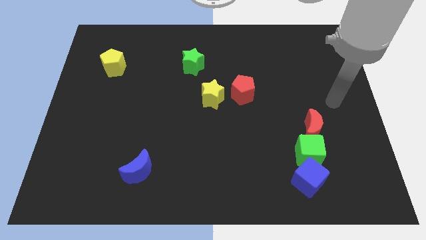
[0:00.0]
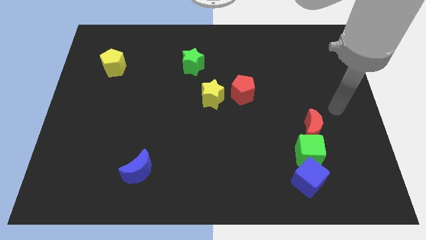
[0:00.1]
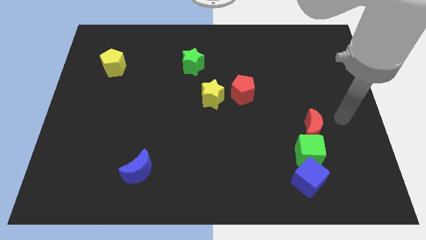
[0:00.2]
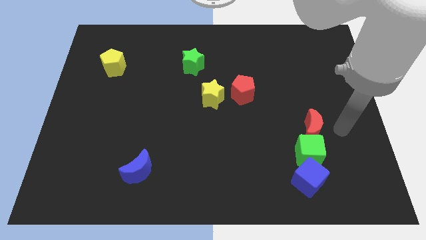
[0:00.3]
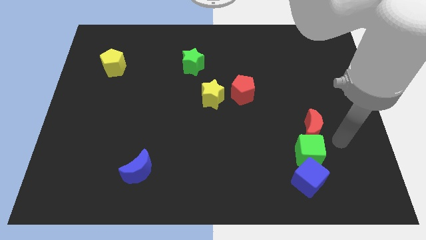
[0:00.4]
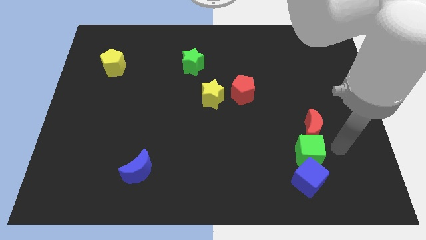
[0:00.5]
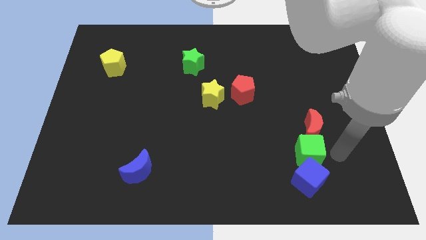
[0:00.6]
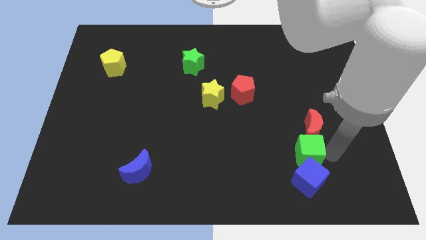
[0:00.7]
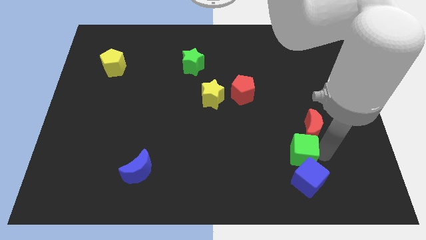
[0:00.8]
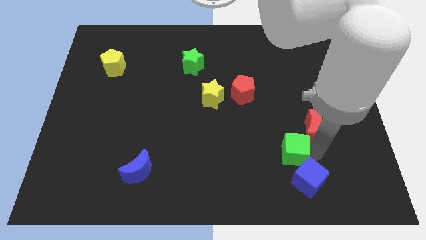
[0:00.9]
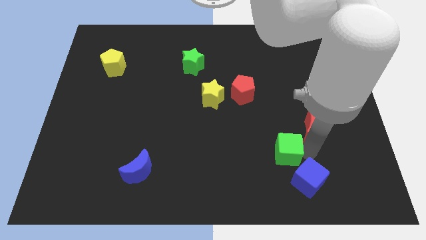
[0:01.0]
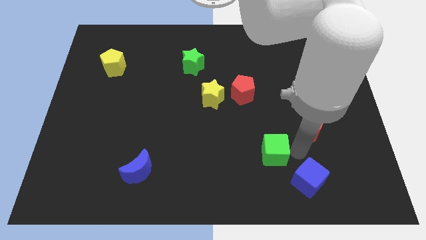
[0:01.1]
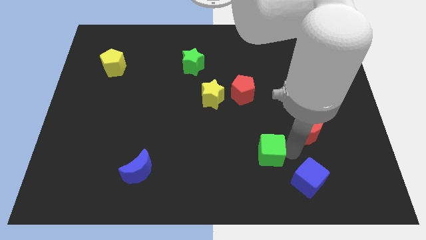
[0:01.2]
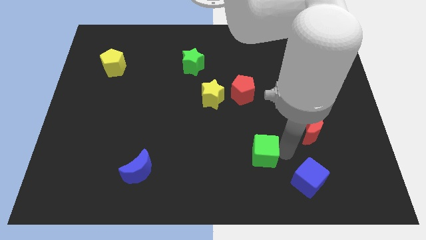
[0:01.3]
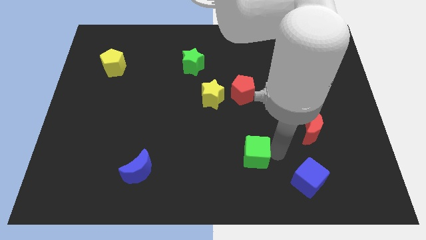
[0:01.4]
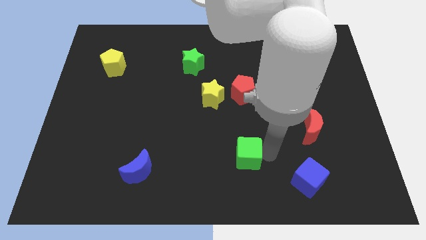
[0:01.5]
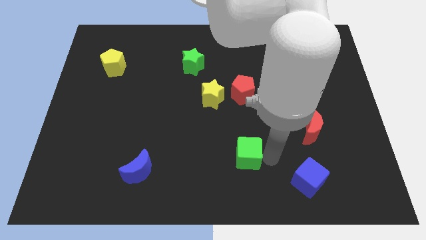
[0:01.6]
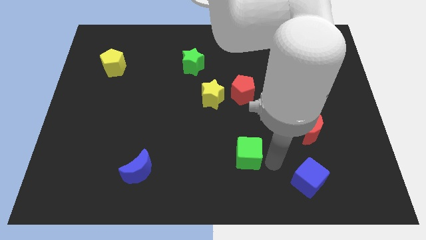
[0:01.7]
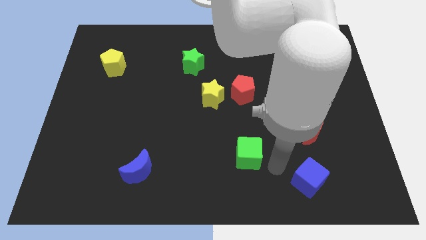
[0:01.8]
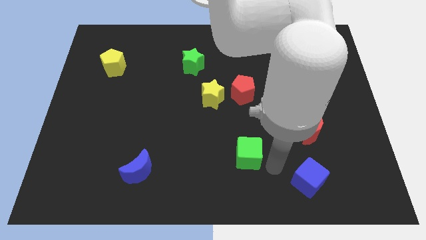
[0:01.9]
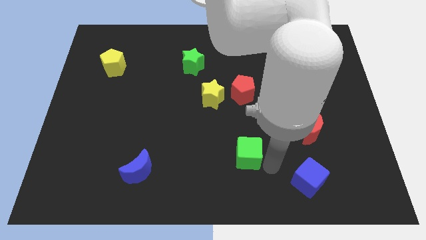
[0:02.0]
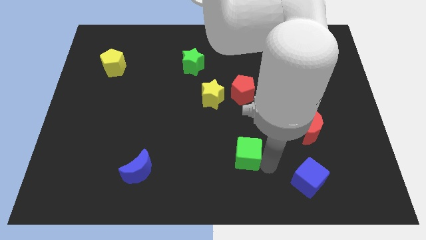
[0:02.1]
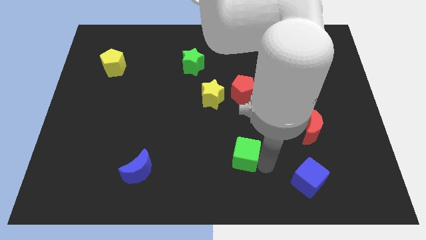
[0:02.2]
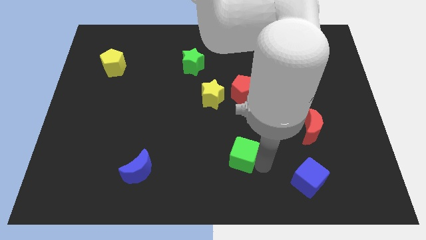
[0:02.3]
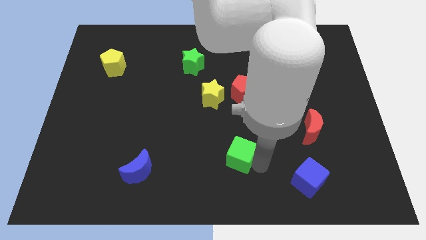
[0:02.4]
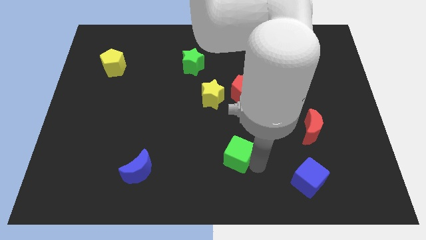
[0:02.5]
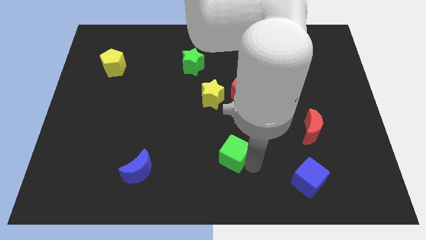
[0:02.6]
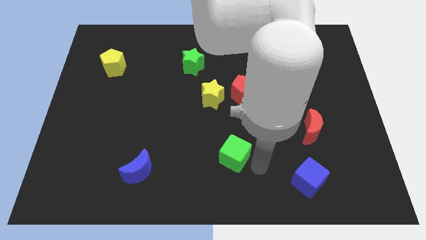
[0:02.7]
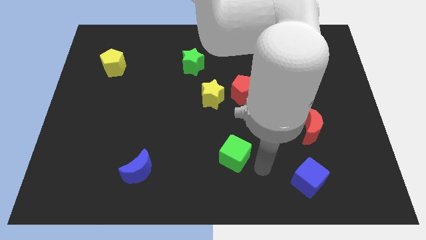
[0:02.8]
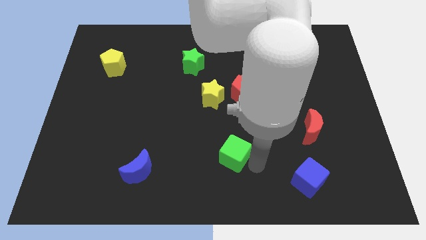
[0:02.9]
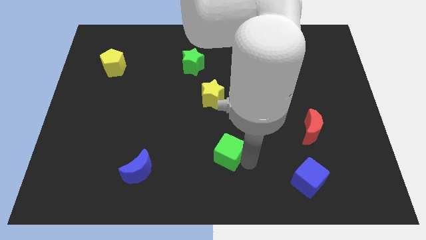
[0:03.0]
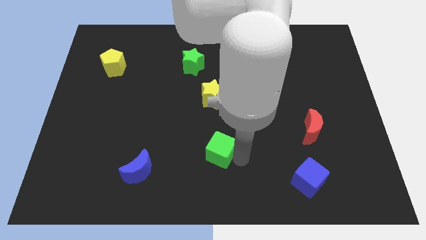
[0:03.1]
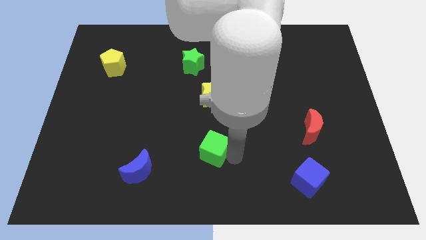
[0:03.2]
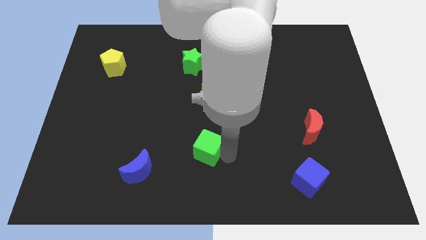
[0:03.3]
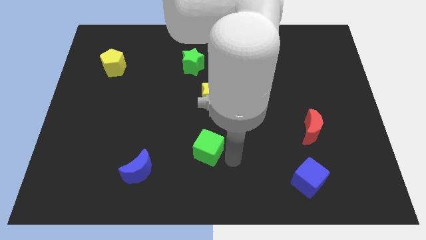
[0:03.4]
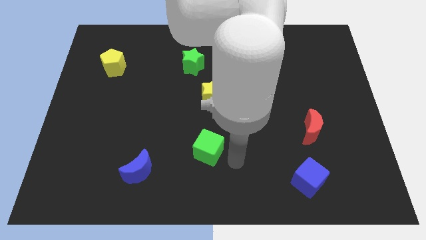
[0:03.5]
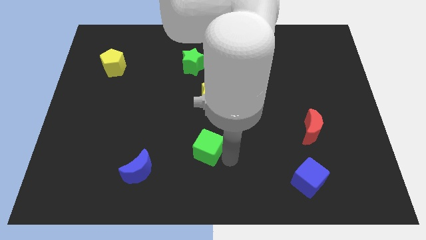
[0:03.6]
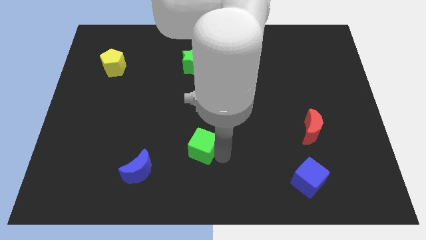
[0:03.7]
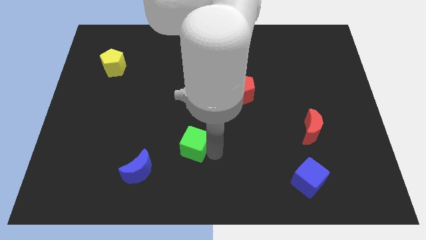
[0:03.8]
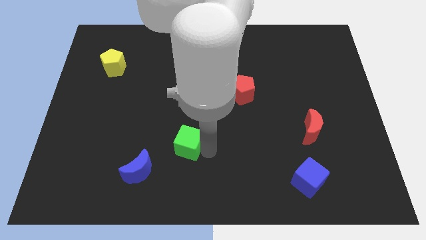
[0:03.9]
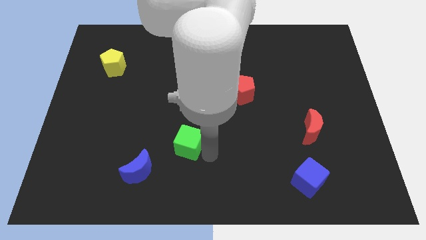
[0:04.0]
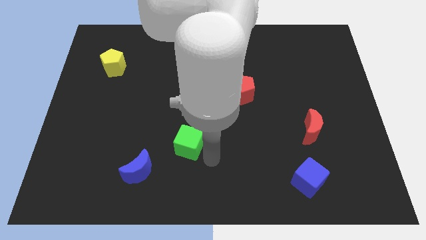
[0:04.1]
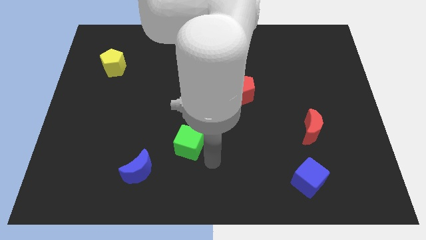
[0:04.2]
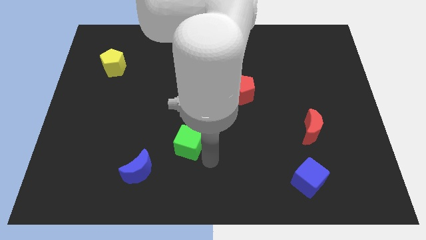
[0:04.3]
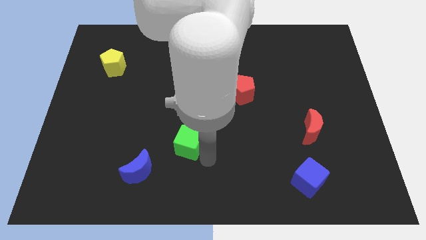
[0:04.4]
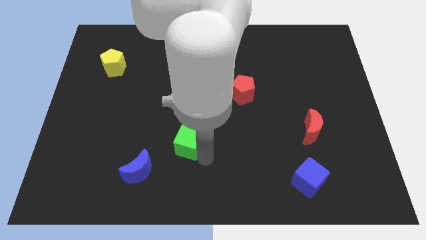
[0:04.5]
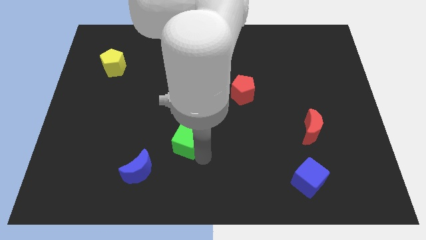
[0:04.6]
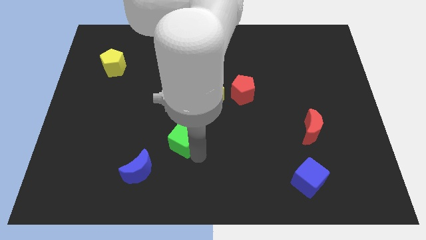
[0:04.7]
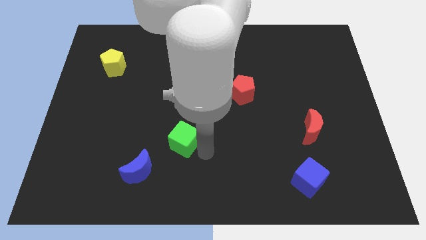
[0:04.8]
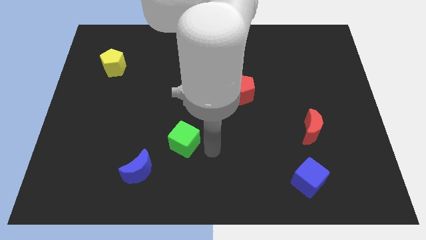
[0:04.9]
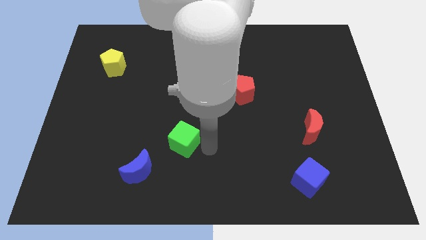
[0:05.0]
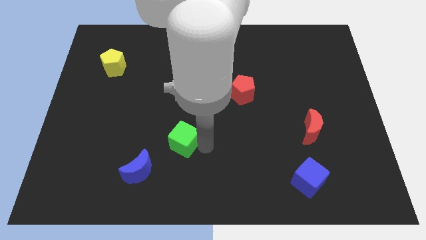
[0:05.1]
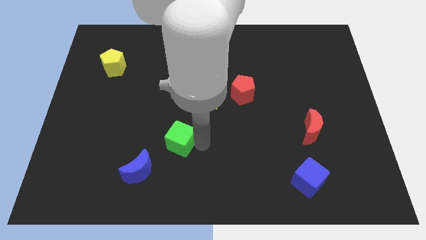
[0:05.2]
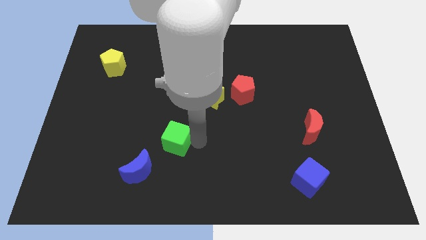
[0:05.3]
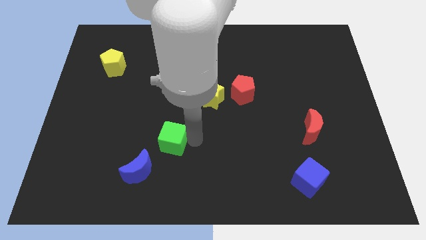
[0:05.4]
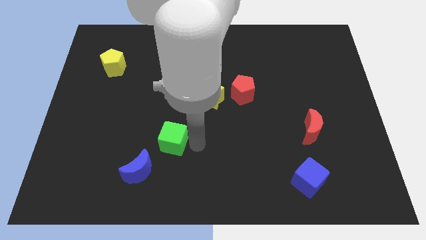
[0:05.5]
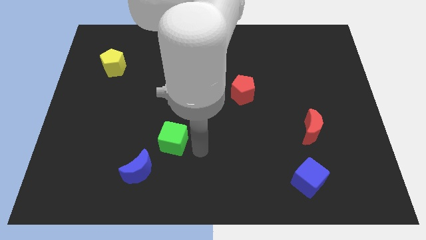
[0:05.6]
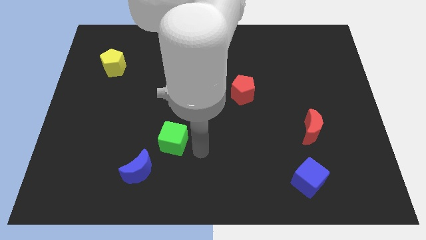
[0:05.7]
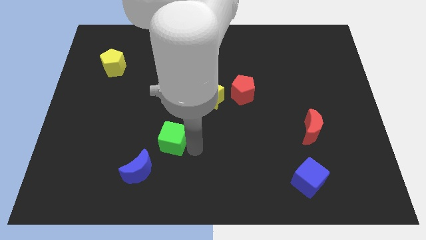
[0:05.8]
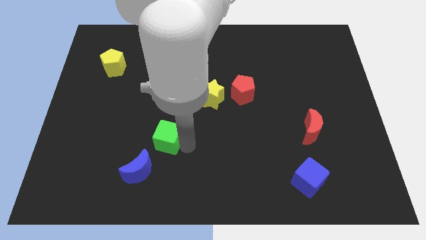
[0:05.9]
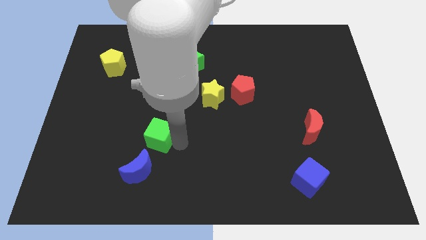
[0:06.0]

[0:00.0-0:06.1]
slide the green cube to the top side of the blue moon
